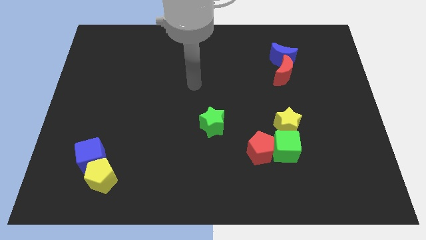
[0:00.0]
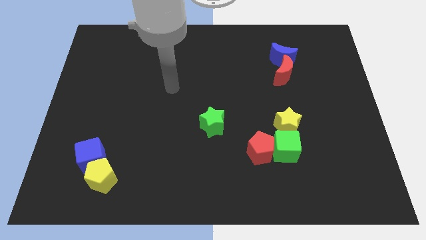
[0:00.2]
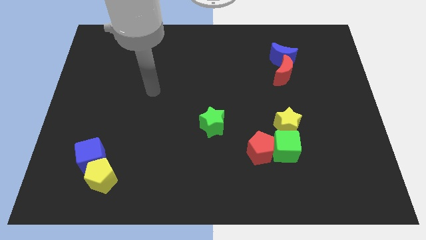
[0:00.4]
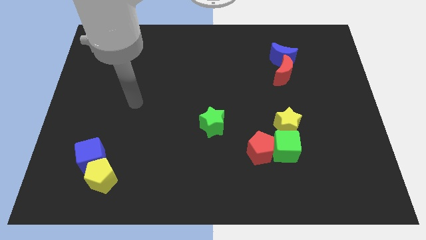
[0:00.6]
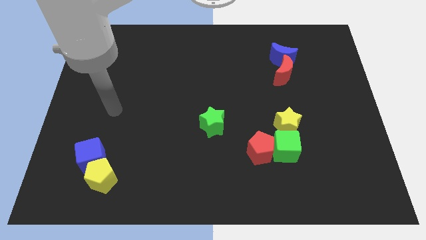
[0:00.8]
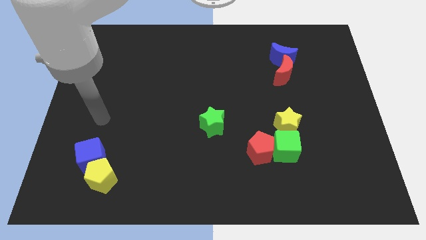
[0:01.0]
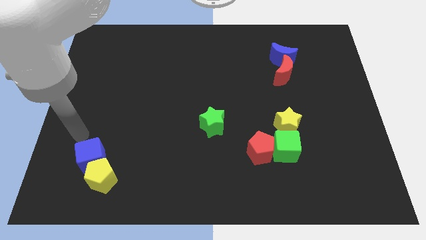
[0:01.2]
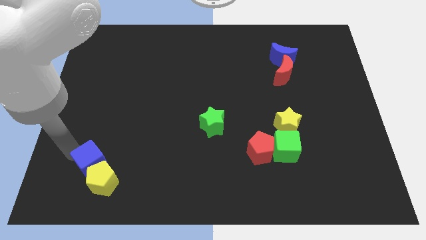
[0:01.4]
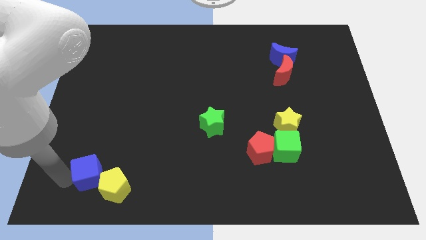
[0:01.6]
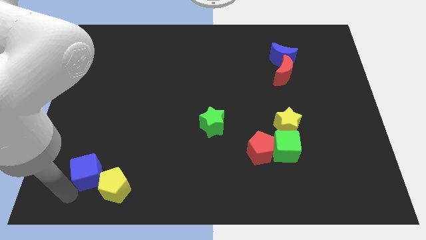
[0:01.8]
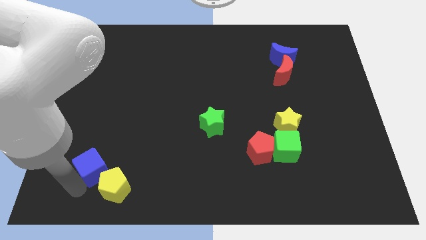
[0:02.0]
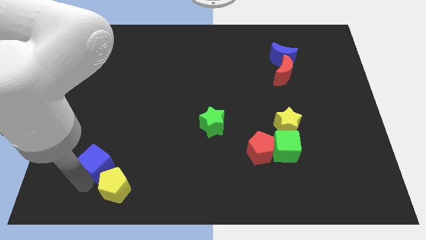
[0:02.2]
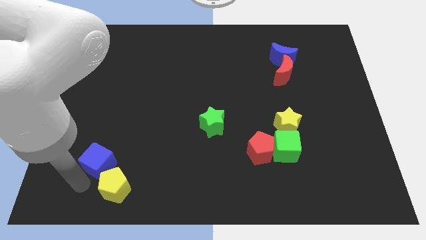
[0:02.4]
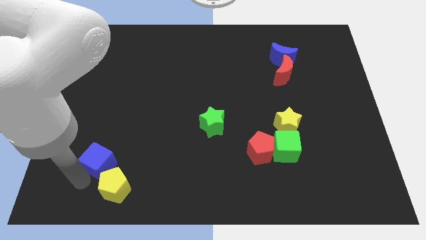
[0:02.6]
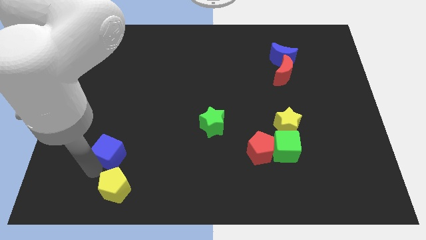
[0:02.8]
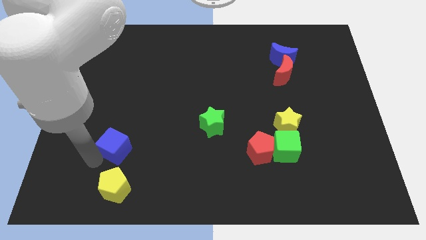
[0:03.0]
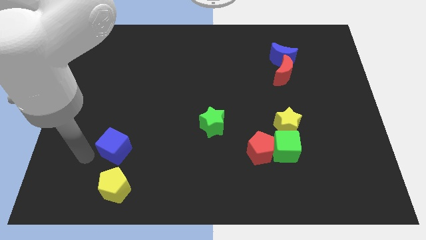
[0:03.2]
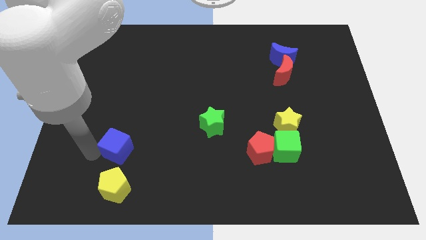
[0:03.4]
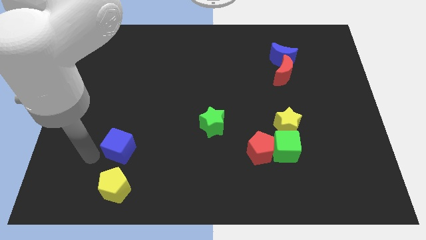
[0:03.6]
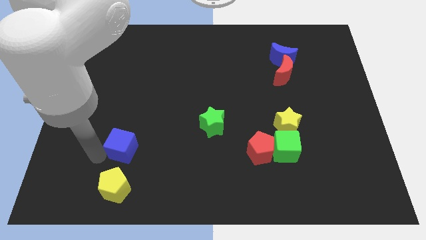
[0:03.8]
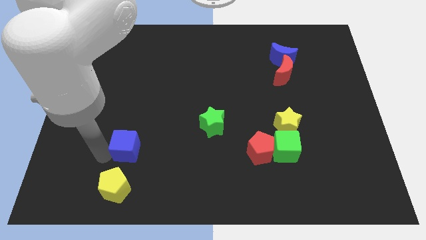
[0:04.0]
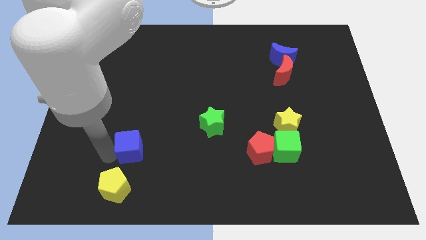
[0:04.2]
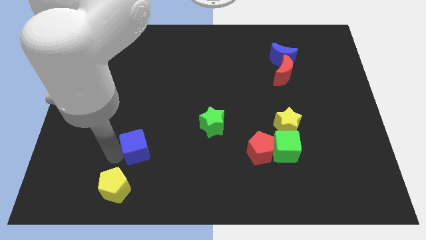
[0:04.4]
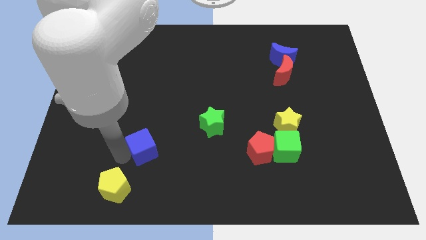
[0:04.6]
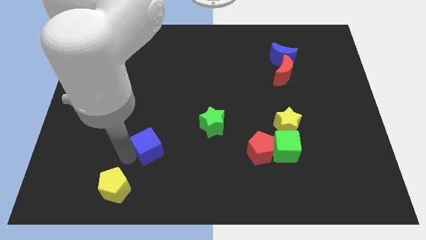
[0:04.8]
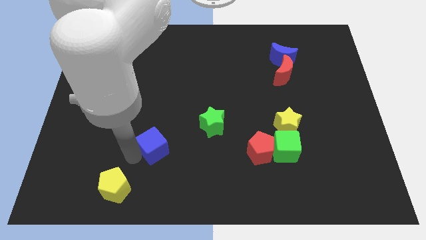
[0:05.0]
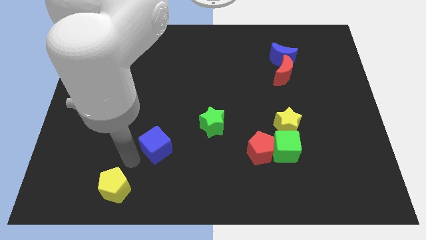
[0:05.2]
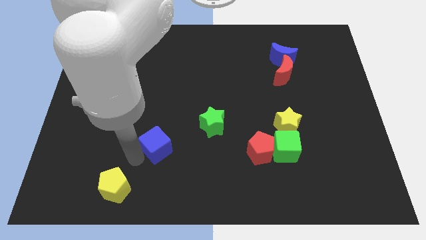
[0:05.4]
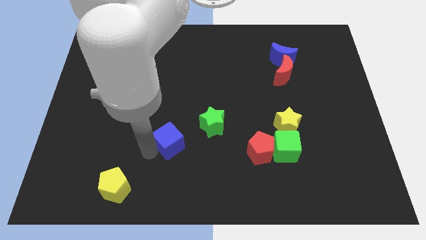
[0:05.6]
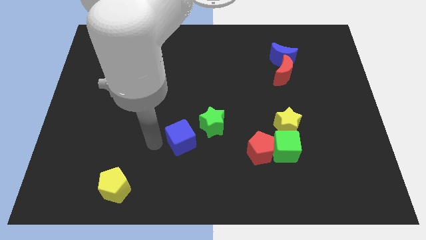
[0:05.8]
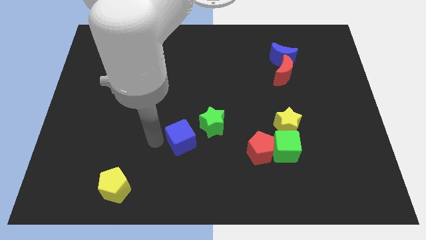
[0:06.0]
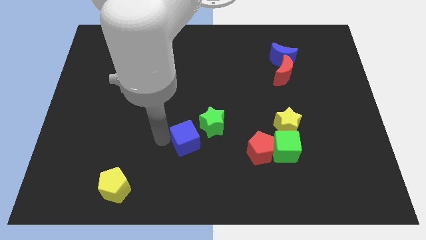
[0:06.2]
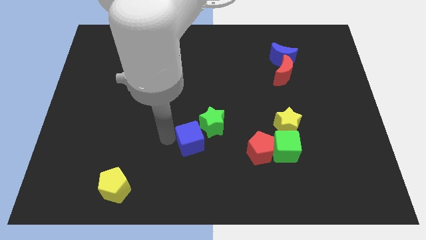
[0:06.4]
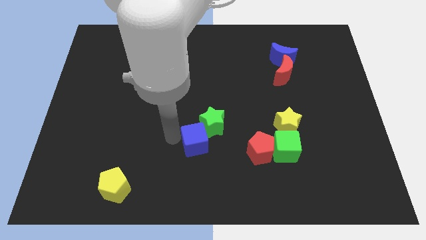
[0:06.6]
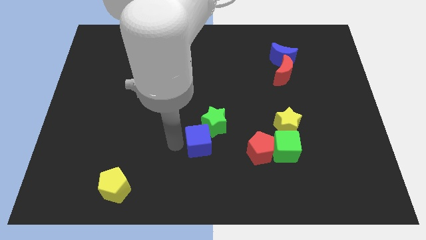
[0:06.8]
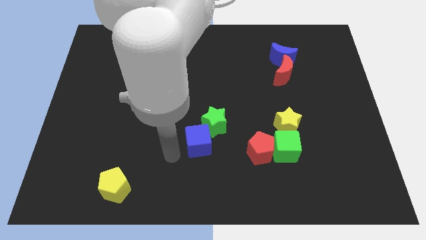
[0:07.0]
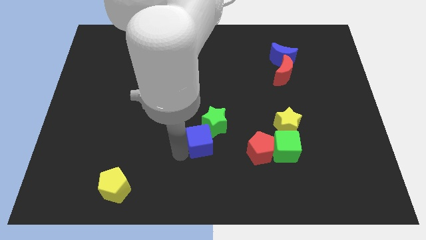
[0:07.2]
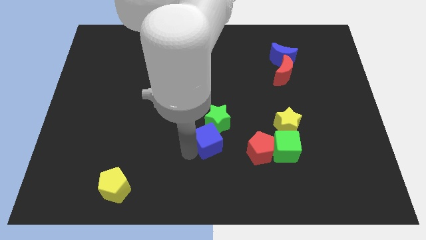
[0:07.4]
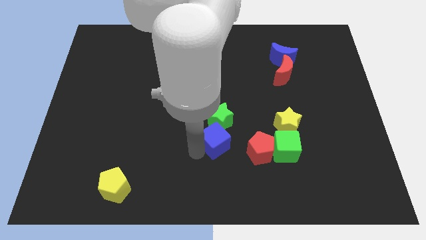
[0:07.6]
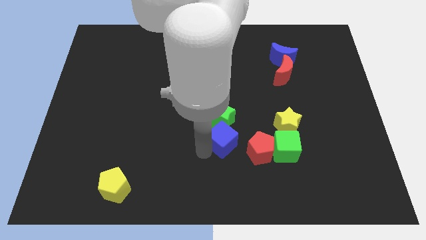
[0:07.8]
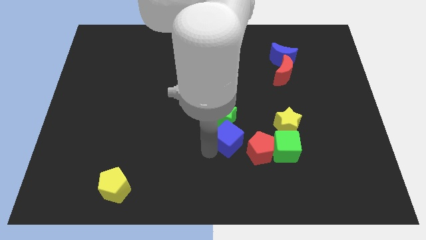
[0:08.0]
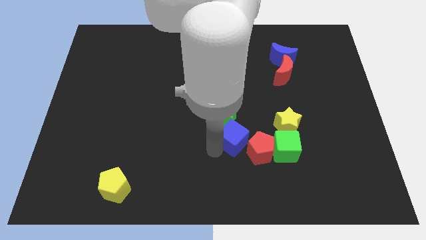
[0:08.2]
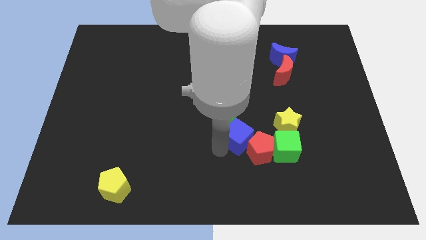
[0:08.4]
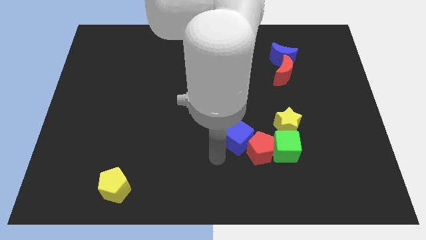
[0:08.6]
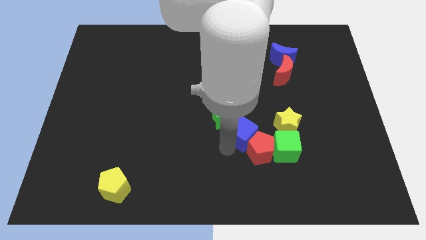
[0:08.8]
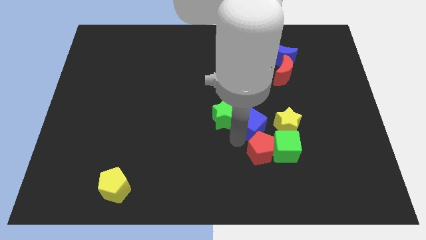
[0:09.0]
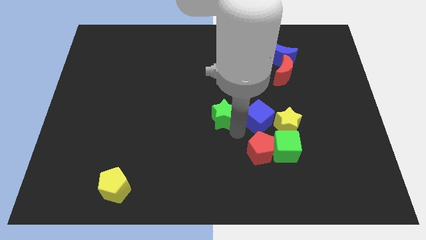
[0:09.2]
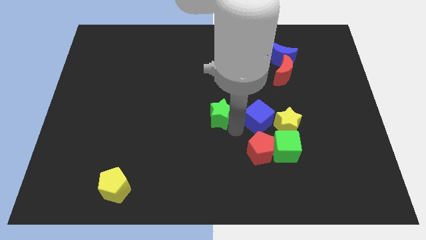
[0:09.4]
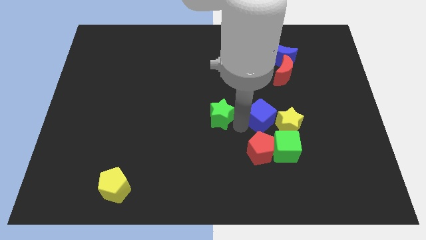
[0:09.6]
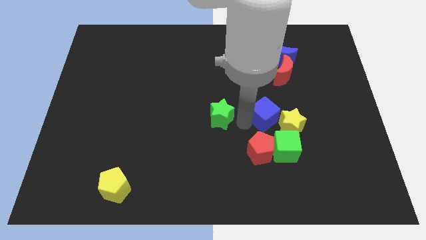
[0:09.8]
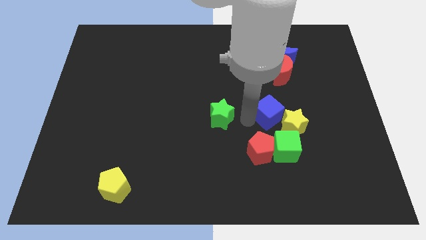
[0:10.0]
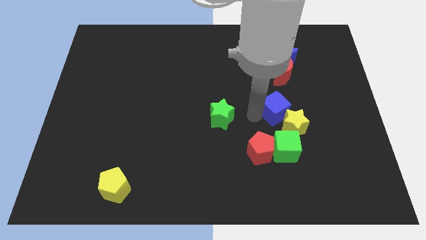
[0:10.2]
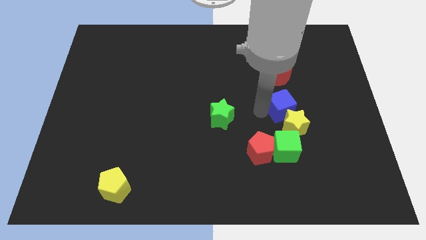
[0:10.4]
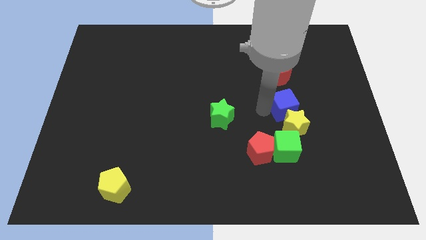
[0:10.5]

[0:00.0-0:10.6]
put the blue cube to the top right of the yellow star

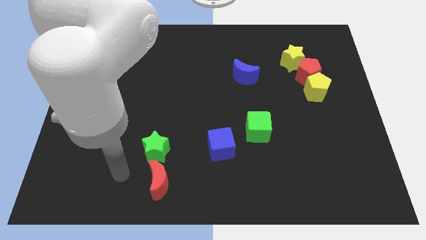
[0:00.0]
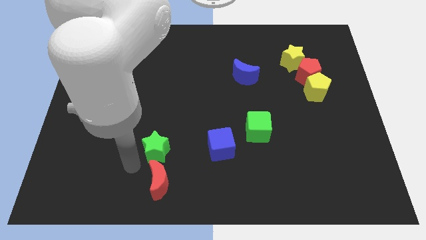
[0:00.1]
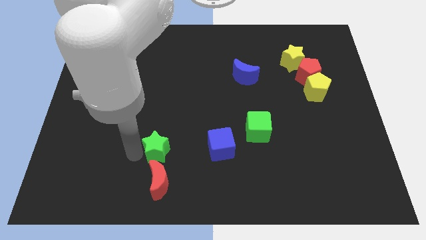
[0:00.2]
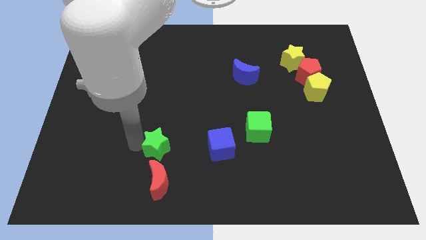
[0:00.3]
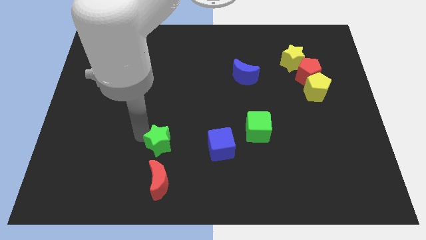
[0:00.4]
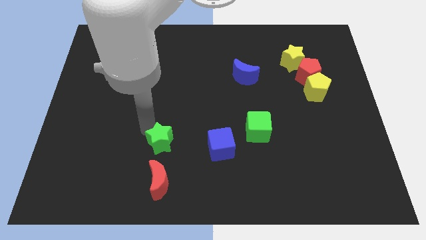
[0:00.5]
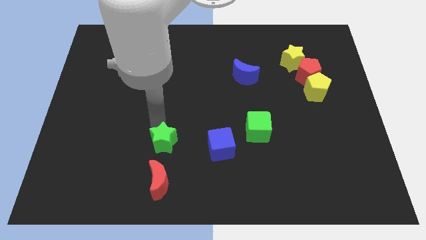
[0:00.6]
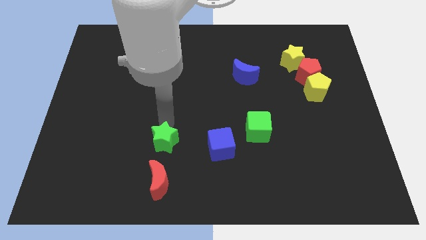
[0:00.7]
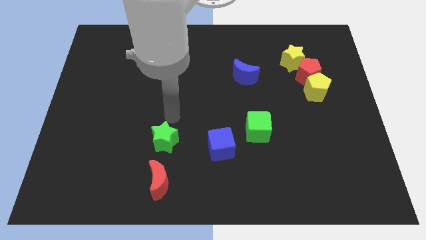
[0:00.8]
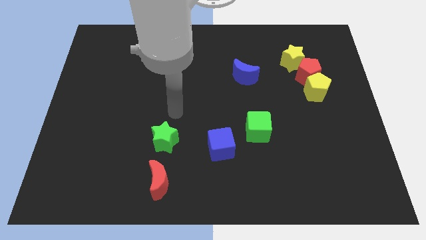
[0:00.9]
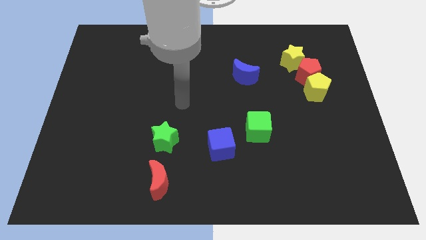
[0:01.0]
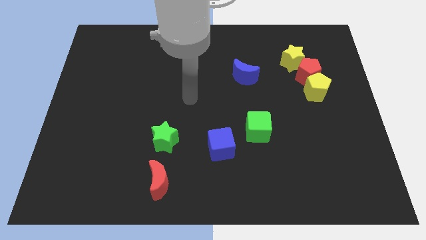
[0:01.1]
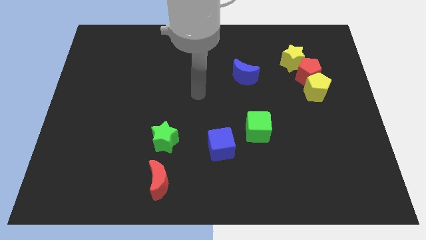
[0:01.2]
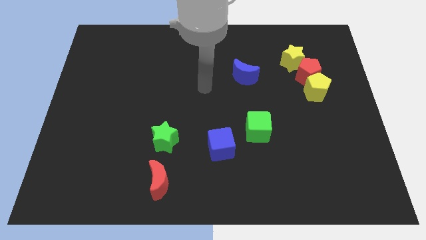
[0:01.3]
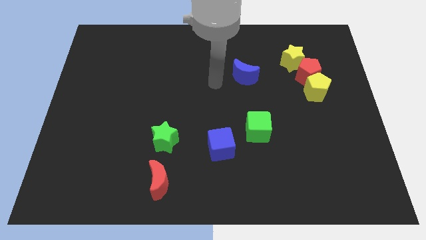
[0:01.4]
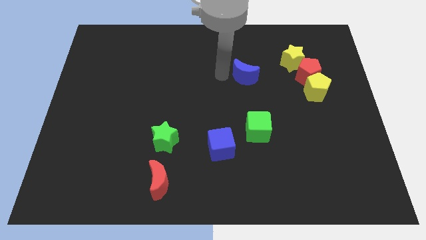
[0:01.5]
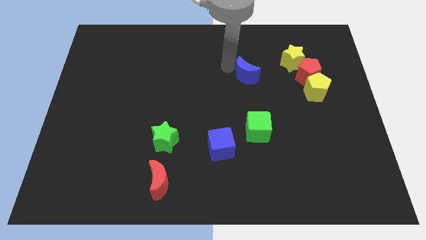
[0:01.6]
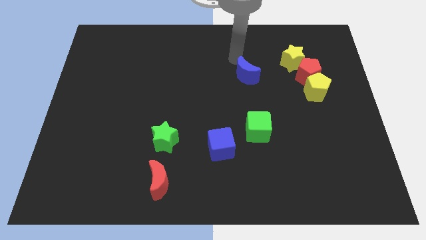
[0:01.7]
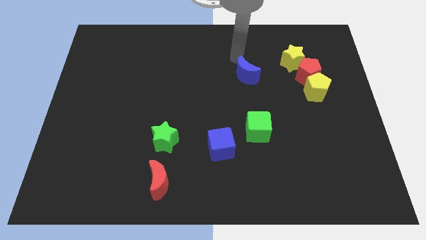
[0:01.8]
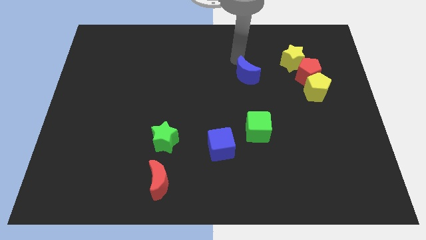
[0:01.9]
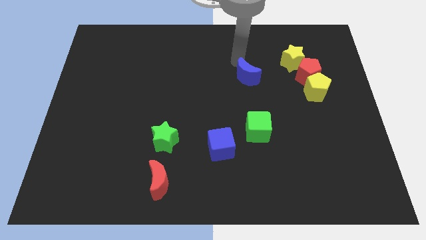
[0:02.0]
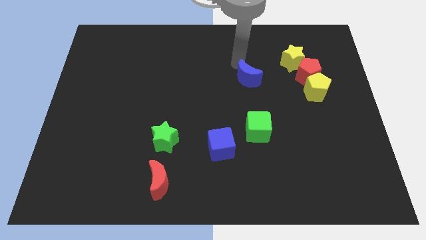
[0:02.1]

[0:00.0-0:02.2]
slide the blue moon above the green cube

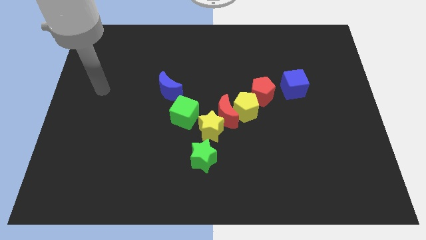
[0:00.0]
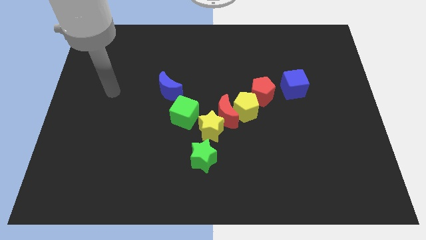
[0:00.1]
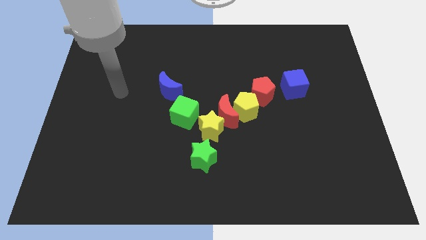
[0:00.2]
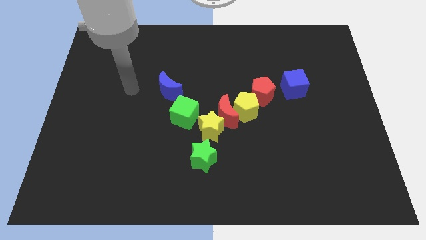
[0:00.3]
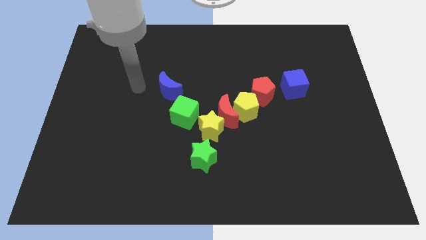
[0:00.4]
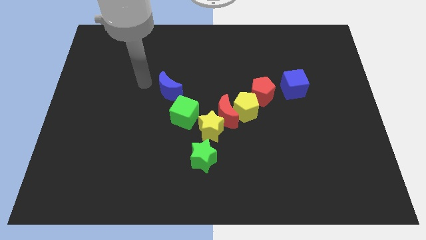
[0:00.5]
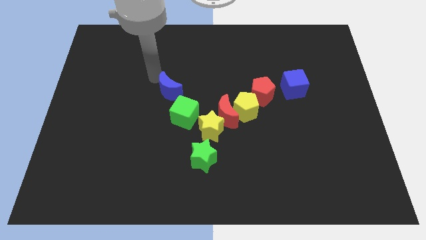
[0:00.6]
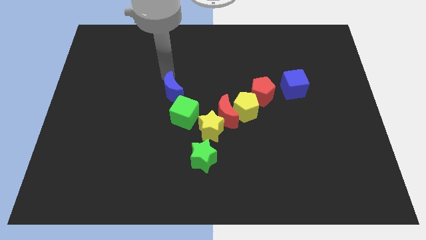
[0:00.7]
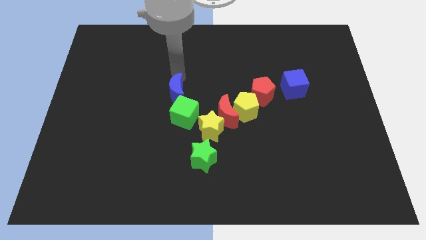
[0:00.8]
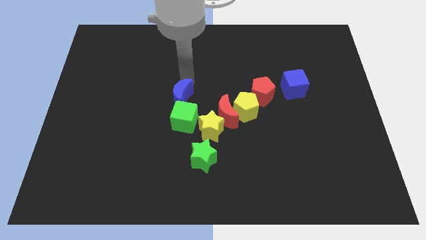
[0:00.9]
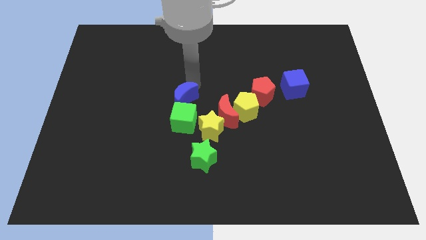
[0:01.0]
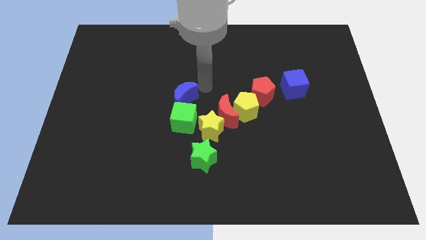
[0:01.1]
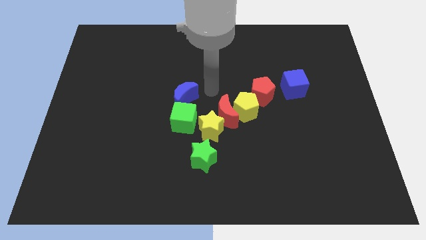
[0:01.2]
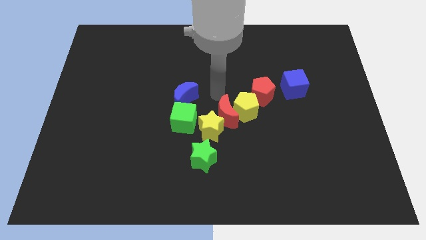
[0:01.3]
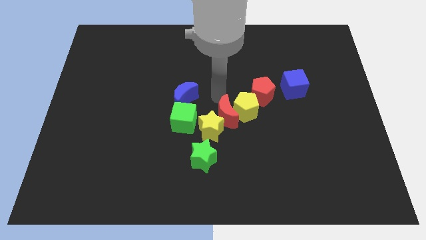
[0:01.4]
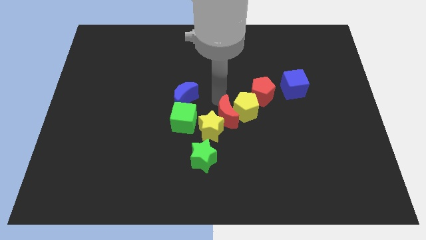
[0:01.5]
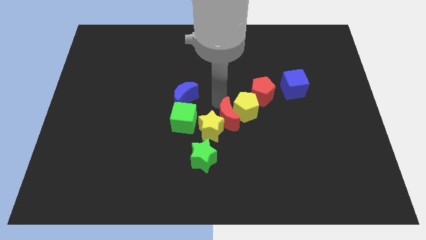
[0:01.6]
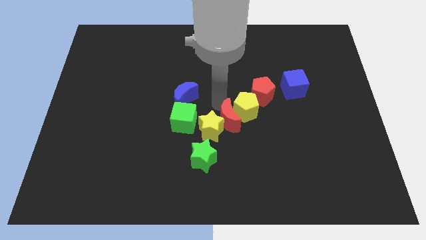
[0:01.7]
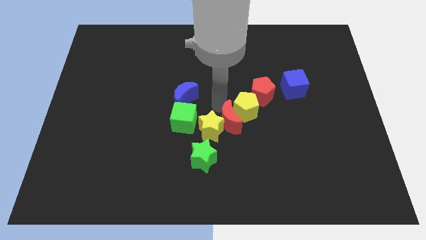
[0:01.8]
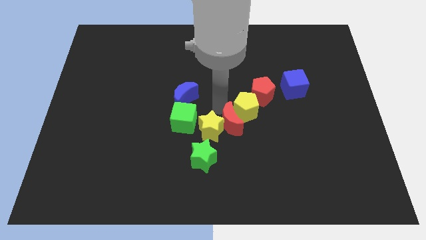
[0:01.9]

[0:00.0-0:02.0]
push the red moon to the bottom right of the yellow star
